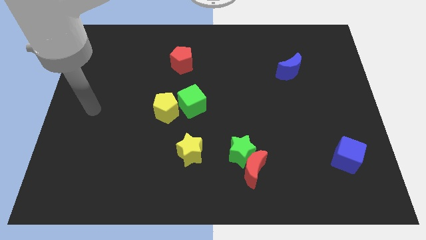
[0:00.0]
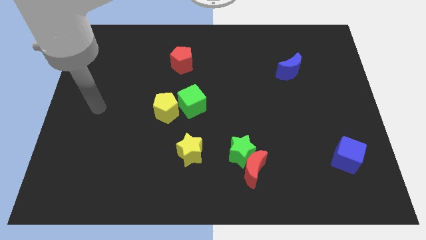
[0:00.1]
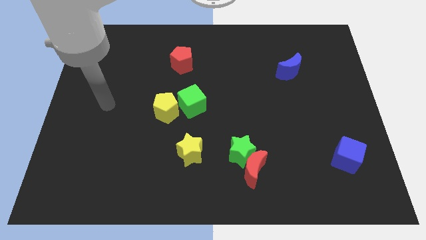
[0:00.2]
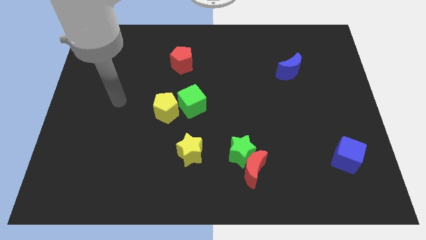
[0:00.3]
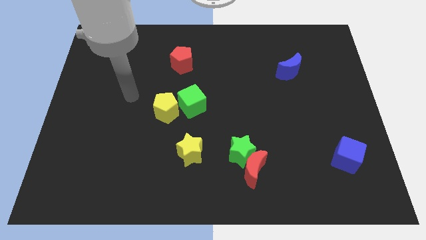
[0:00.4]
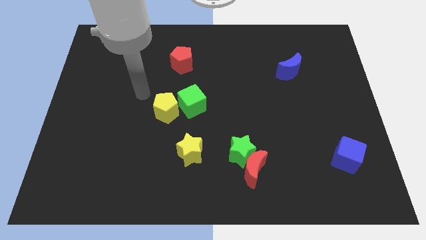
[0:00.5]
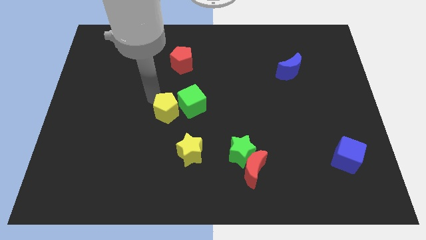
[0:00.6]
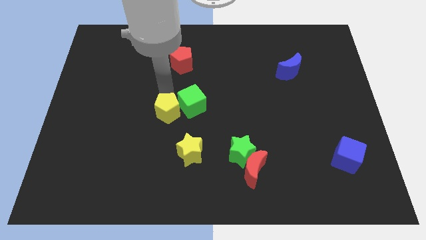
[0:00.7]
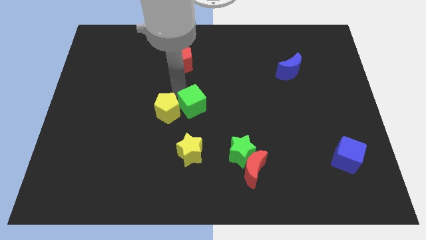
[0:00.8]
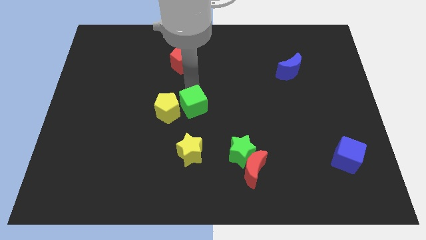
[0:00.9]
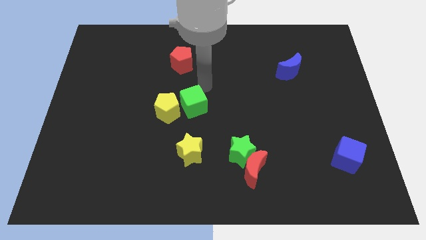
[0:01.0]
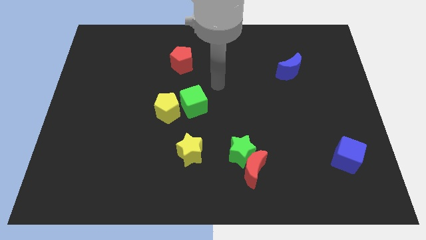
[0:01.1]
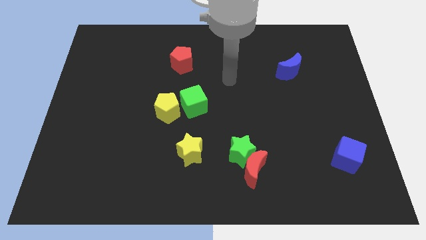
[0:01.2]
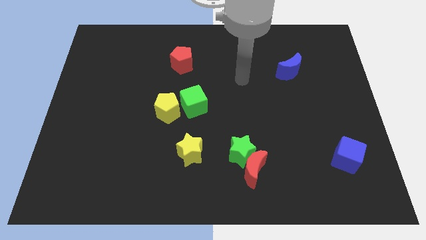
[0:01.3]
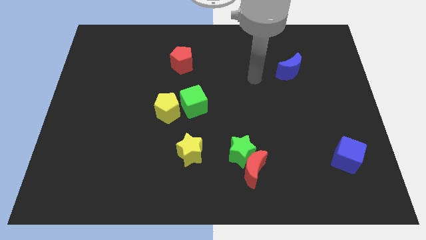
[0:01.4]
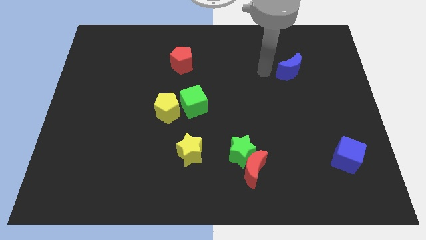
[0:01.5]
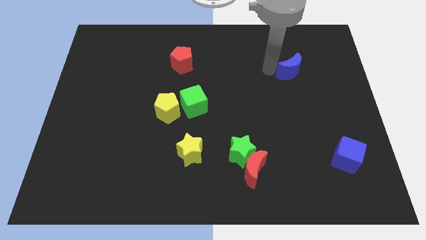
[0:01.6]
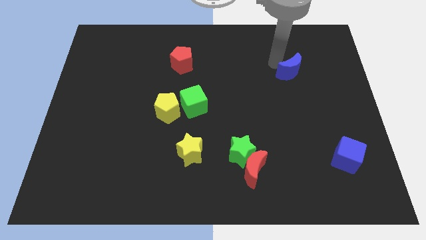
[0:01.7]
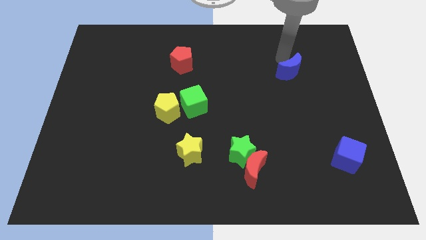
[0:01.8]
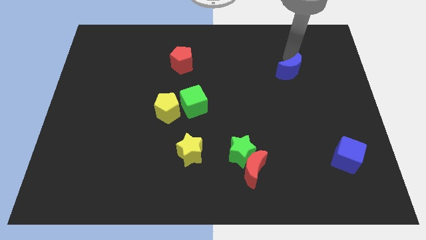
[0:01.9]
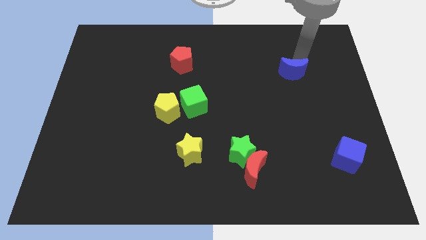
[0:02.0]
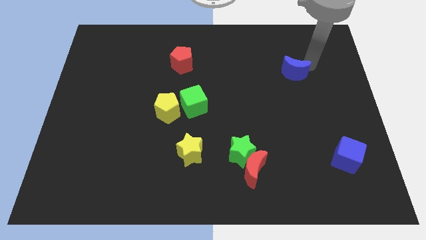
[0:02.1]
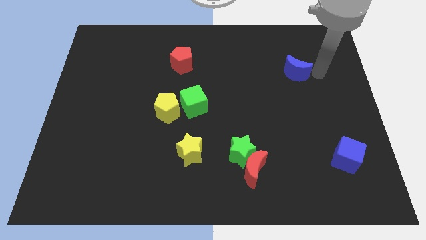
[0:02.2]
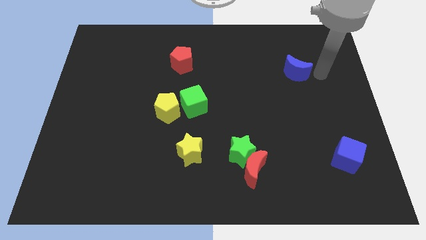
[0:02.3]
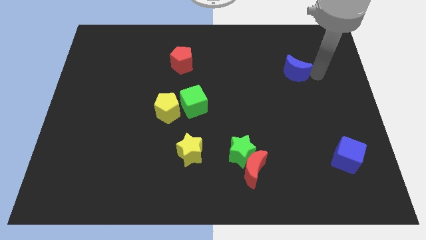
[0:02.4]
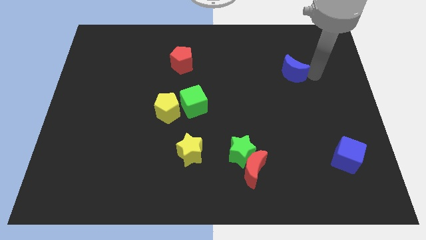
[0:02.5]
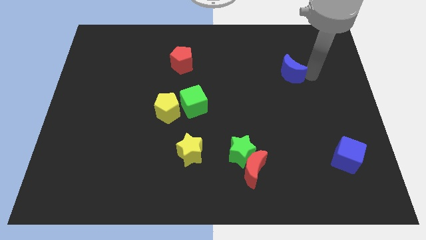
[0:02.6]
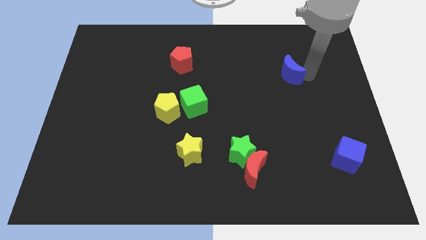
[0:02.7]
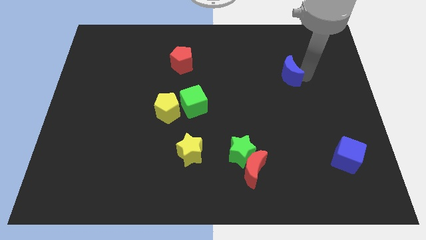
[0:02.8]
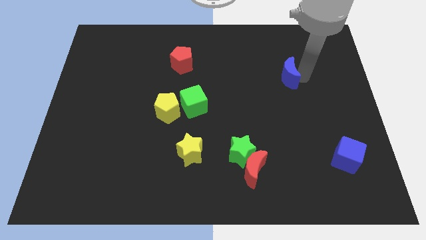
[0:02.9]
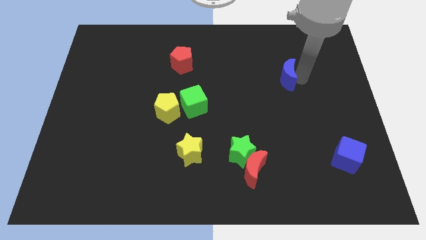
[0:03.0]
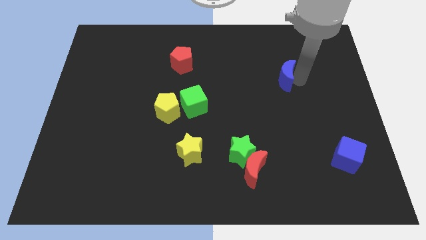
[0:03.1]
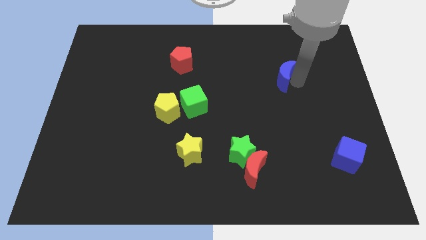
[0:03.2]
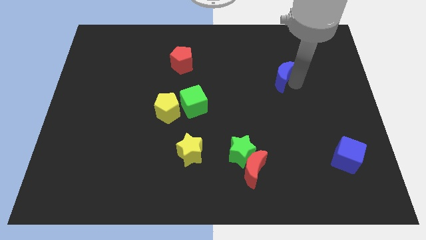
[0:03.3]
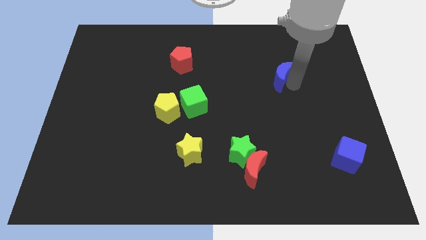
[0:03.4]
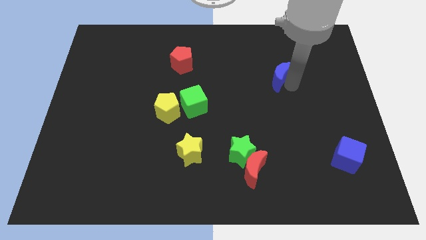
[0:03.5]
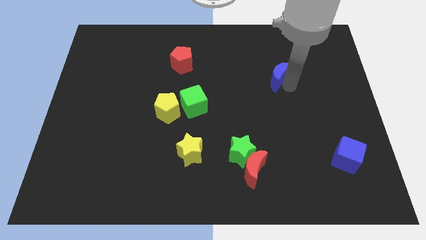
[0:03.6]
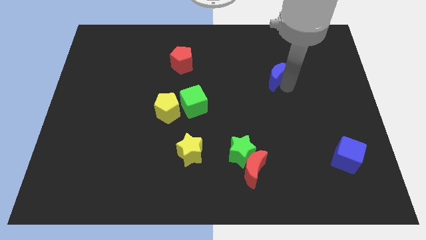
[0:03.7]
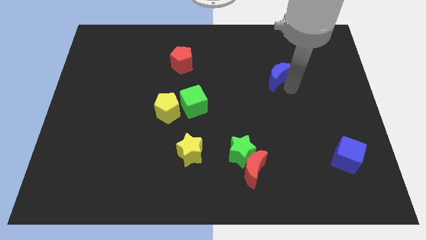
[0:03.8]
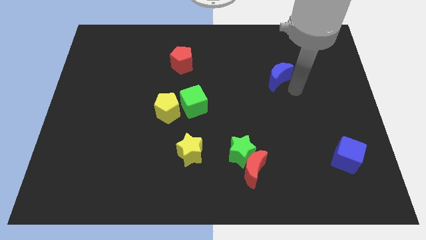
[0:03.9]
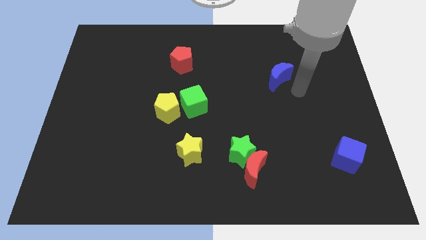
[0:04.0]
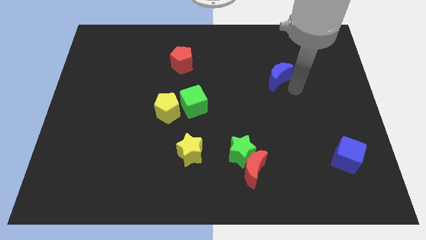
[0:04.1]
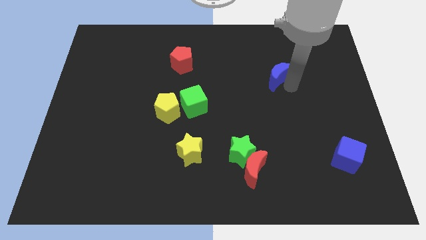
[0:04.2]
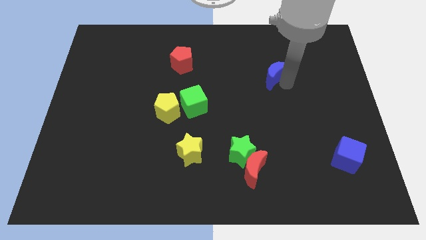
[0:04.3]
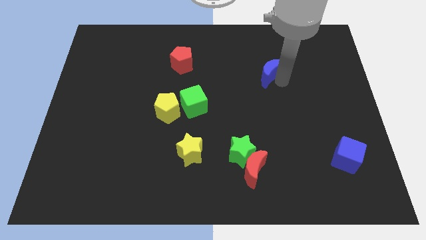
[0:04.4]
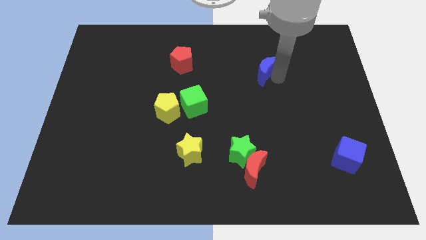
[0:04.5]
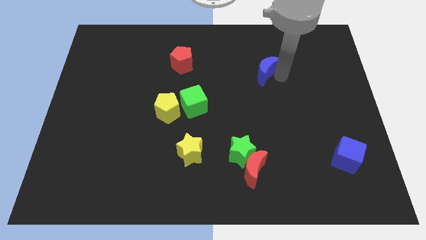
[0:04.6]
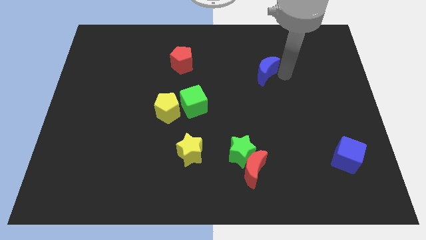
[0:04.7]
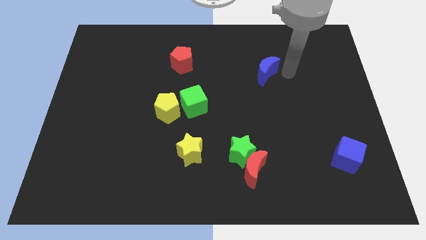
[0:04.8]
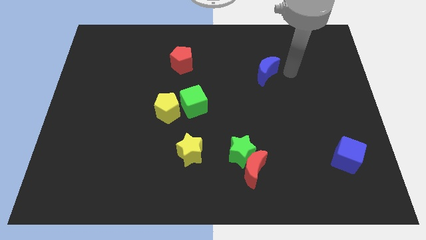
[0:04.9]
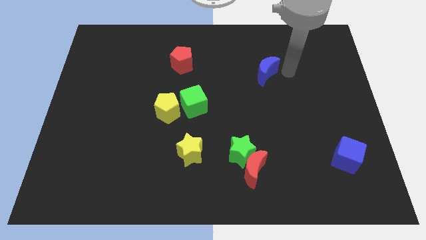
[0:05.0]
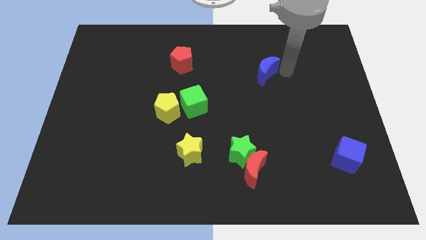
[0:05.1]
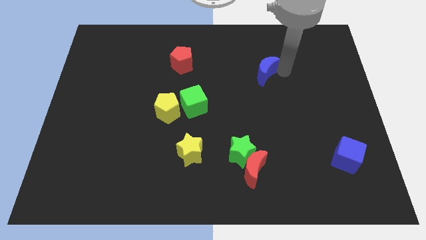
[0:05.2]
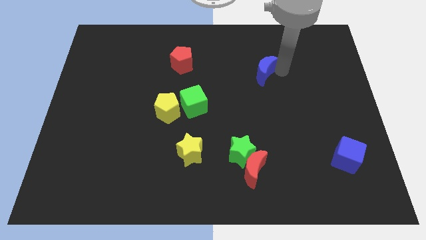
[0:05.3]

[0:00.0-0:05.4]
push the blue moon left a bit

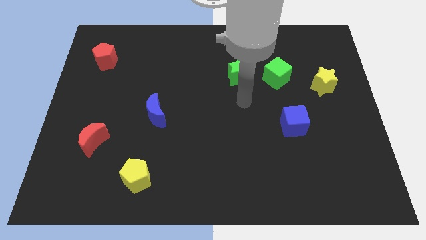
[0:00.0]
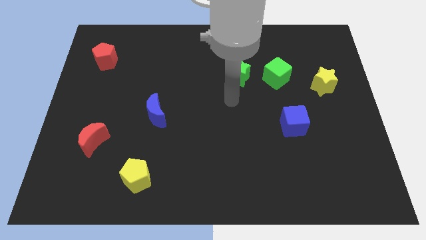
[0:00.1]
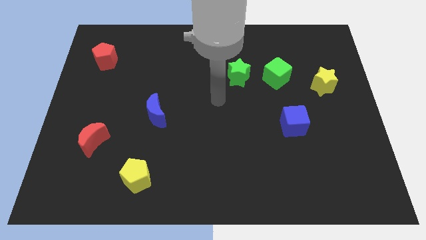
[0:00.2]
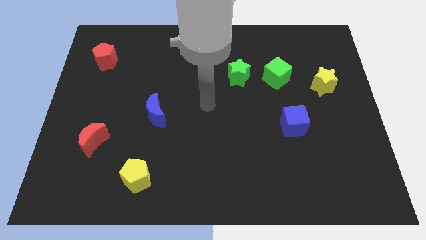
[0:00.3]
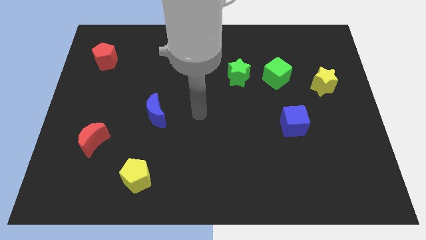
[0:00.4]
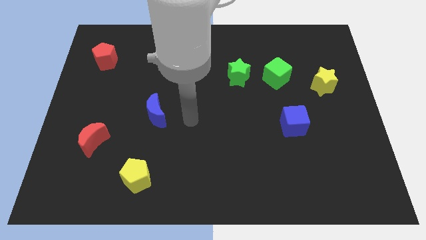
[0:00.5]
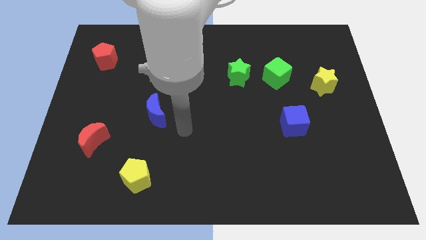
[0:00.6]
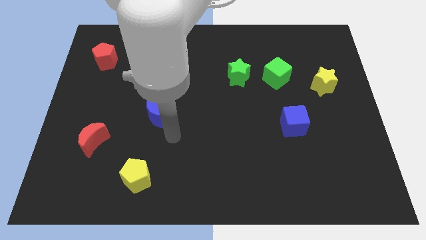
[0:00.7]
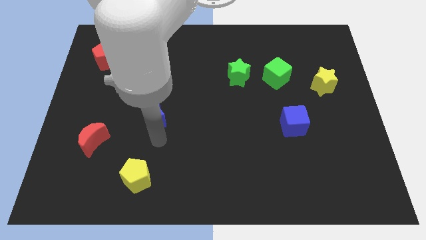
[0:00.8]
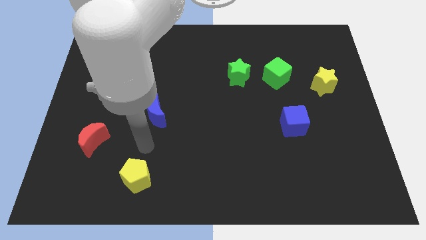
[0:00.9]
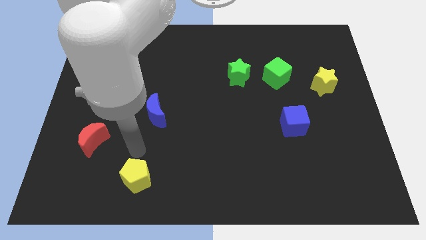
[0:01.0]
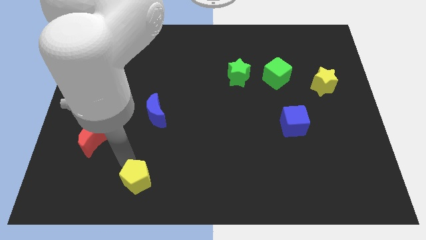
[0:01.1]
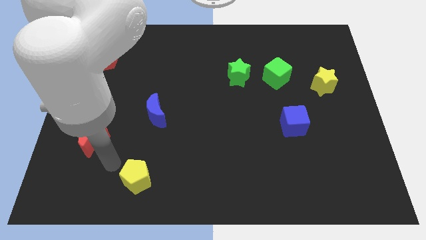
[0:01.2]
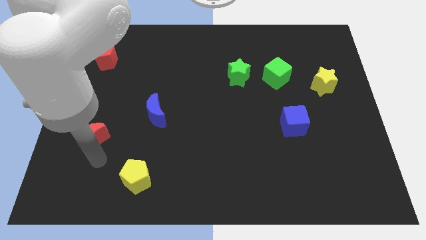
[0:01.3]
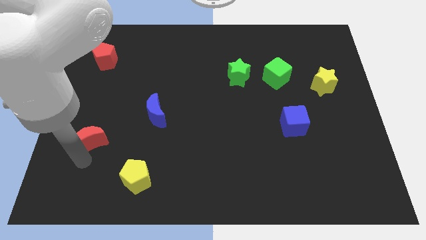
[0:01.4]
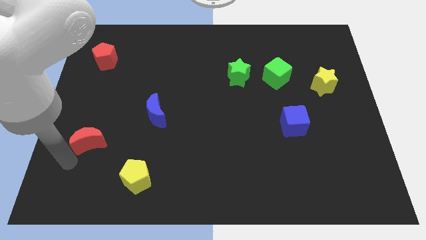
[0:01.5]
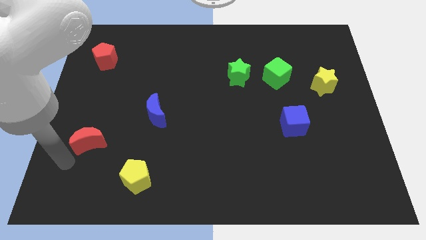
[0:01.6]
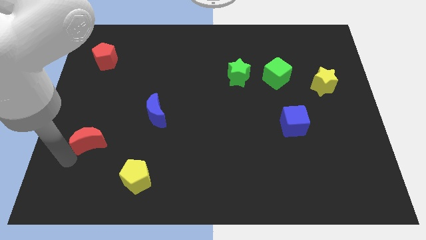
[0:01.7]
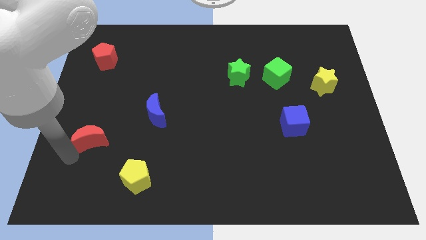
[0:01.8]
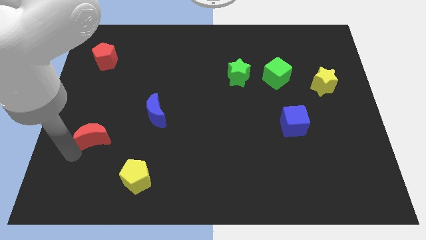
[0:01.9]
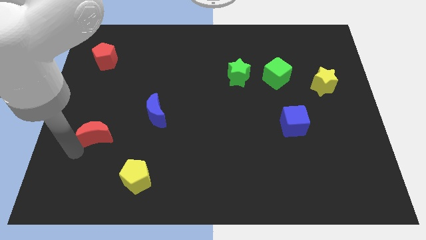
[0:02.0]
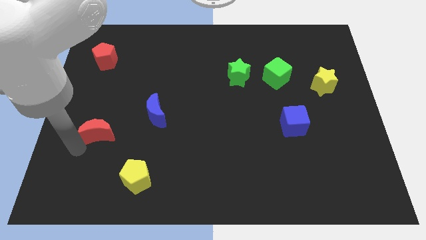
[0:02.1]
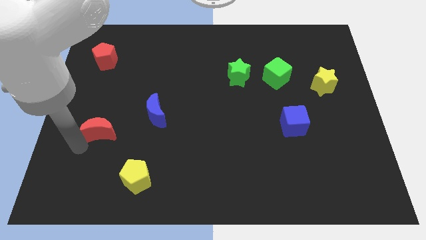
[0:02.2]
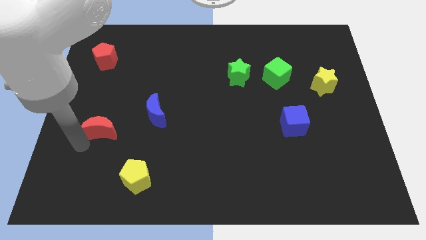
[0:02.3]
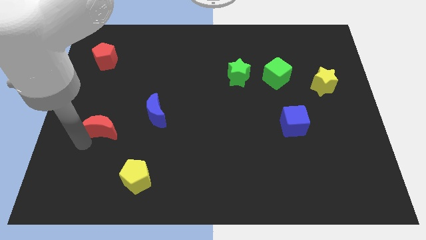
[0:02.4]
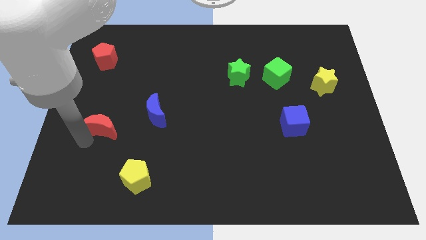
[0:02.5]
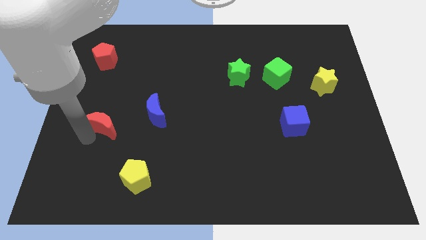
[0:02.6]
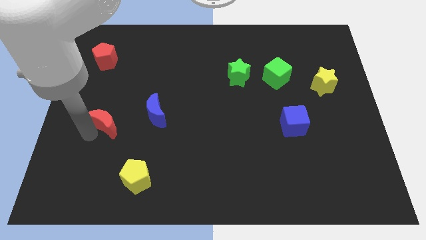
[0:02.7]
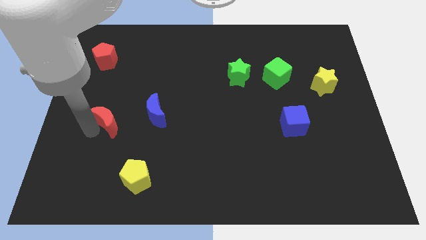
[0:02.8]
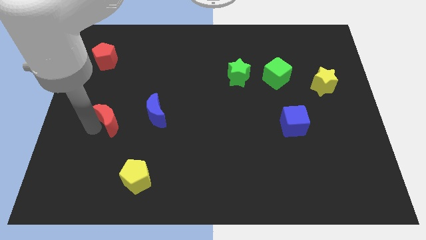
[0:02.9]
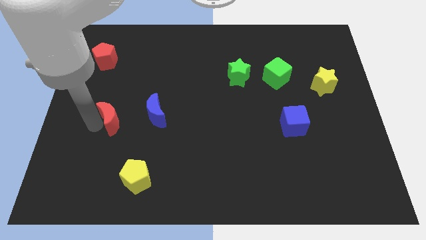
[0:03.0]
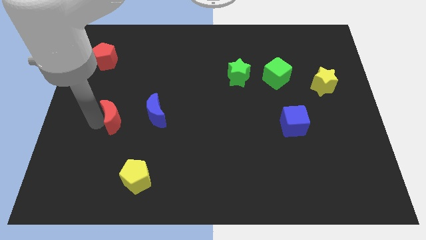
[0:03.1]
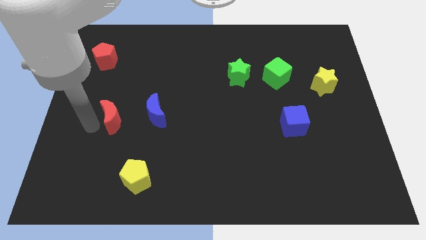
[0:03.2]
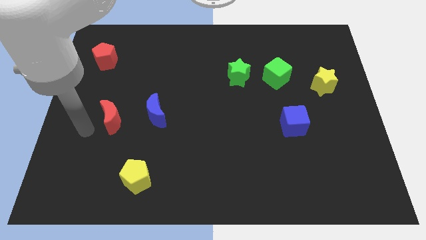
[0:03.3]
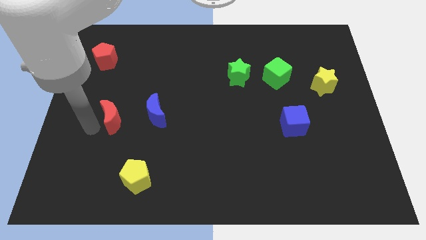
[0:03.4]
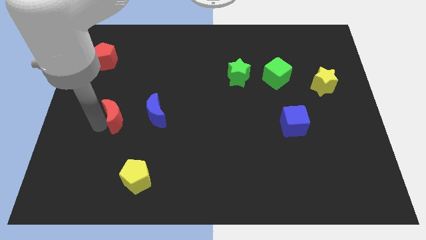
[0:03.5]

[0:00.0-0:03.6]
slightly push the red moon up and then to the right
